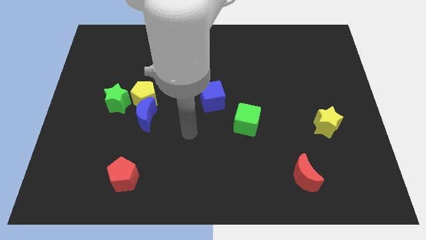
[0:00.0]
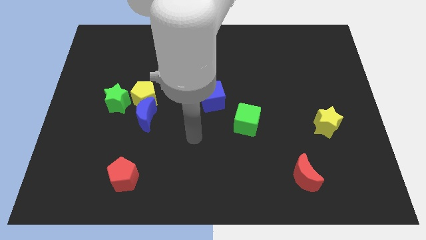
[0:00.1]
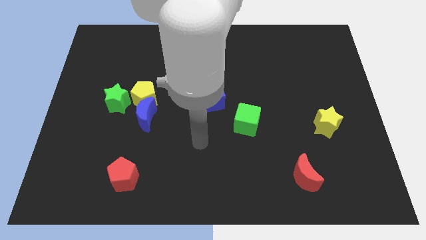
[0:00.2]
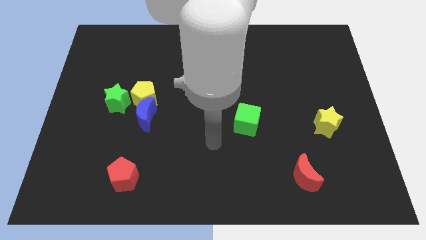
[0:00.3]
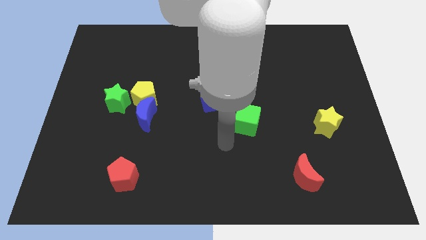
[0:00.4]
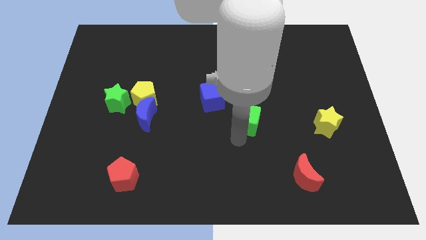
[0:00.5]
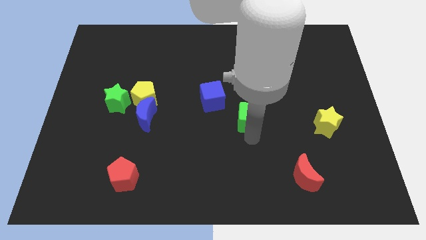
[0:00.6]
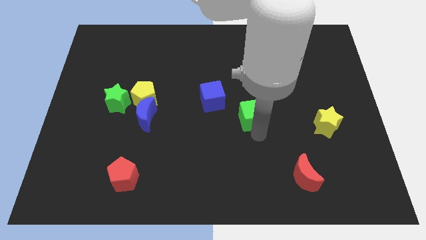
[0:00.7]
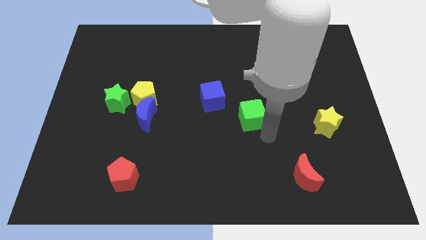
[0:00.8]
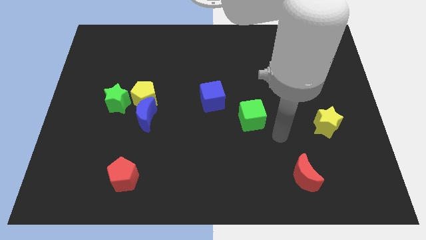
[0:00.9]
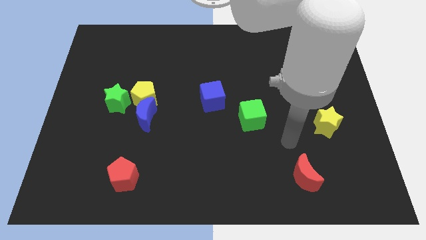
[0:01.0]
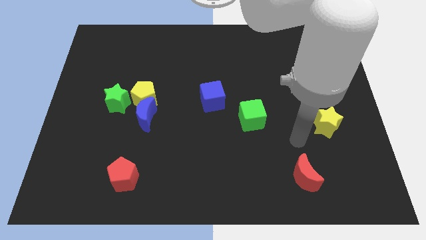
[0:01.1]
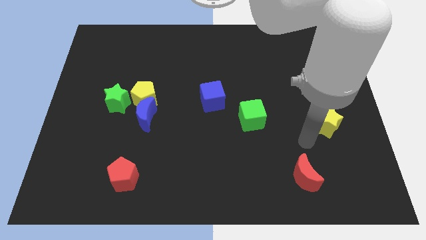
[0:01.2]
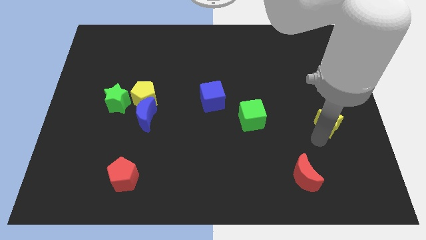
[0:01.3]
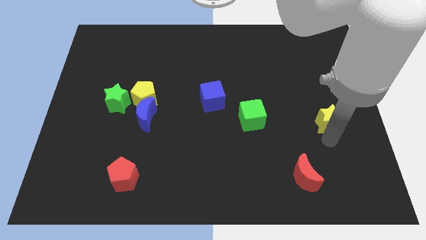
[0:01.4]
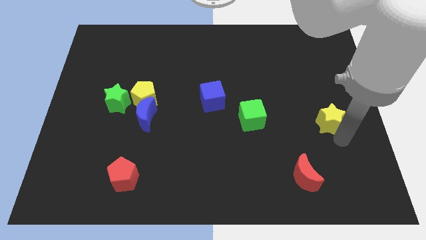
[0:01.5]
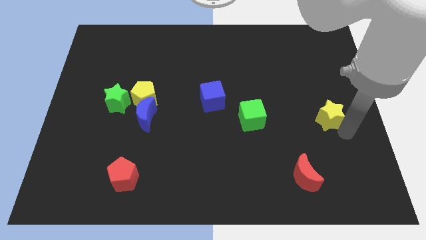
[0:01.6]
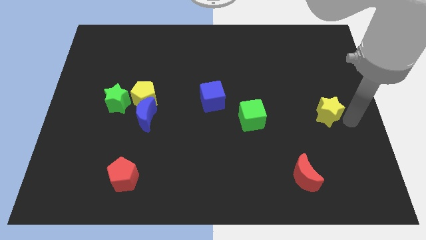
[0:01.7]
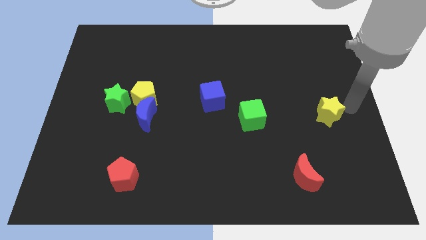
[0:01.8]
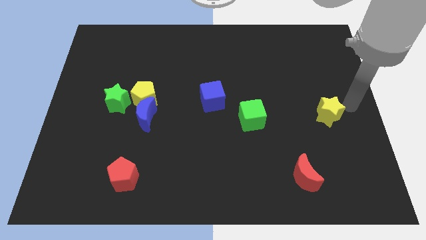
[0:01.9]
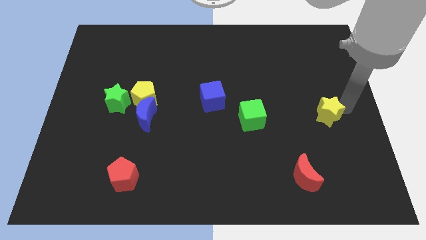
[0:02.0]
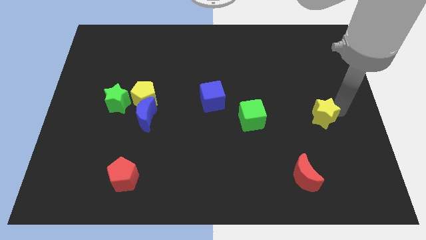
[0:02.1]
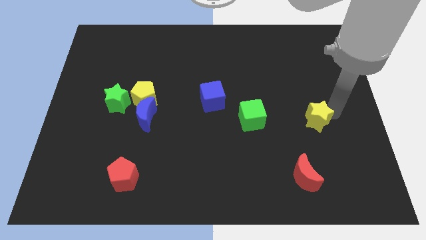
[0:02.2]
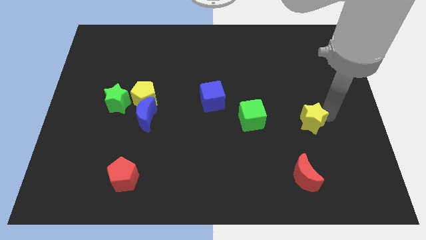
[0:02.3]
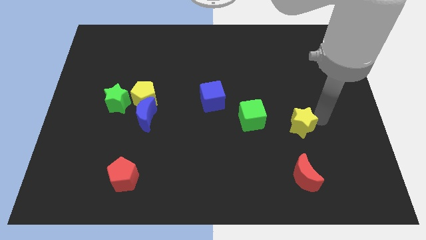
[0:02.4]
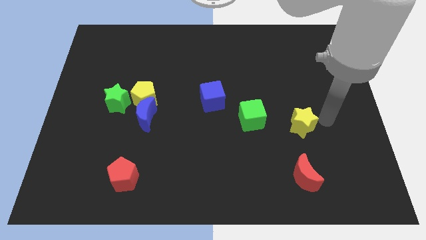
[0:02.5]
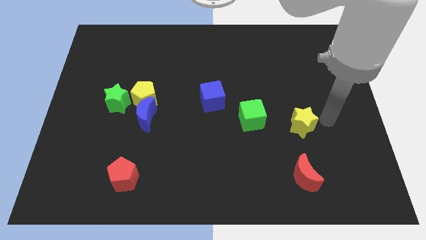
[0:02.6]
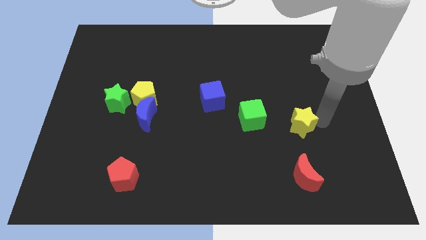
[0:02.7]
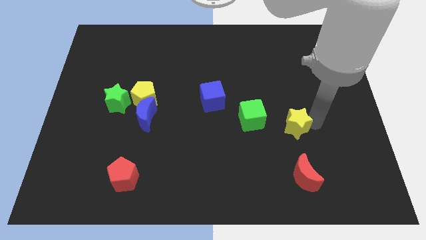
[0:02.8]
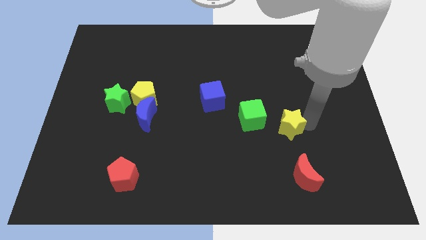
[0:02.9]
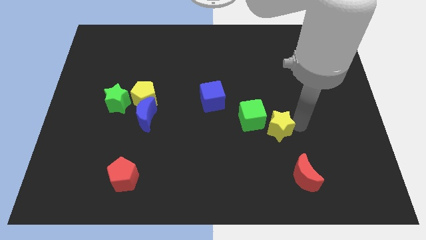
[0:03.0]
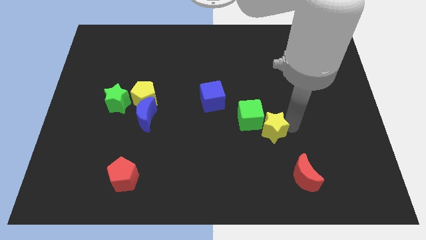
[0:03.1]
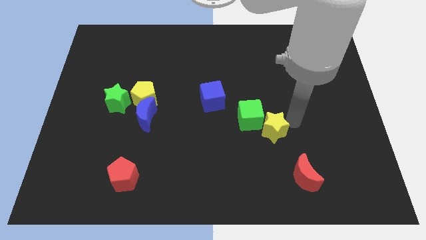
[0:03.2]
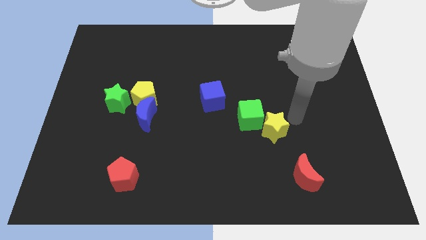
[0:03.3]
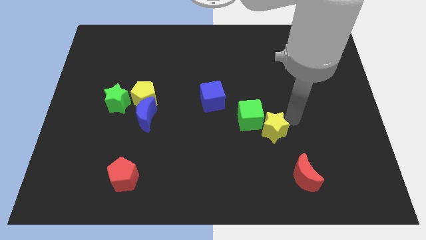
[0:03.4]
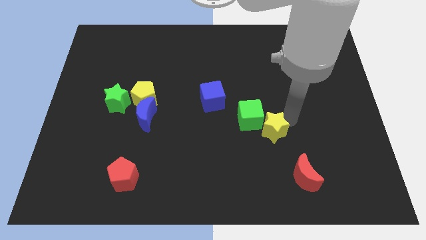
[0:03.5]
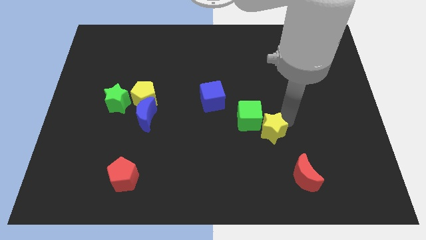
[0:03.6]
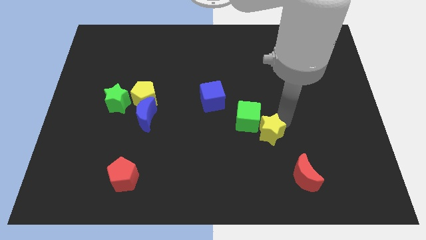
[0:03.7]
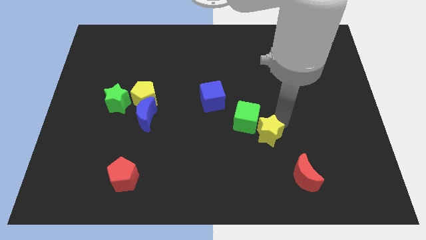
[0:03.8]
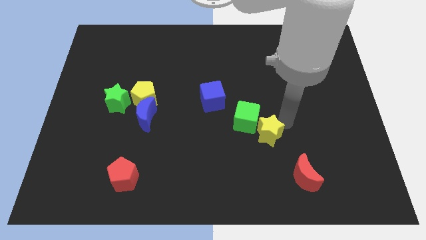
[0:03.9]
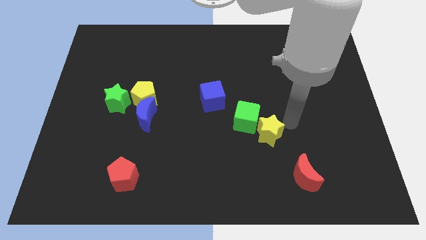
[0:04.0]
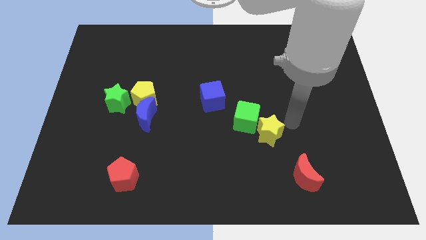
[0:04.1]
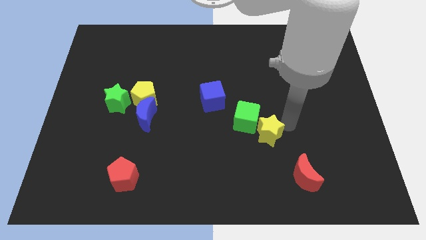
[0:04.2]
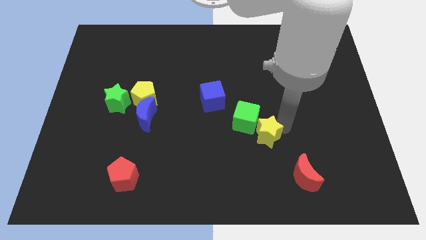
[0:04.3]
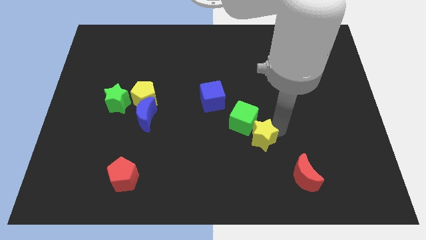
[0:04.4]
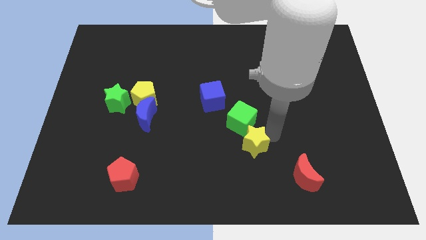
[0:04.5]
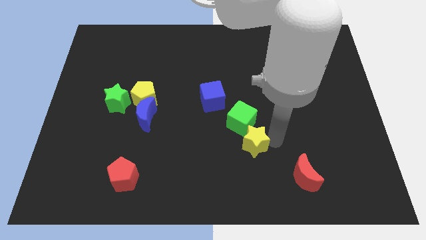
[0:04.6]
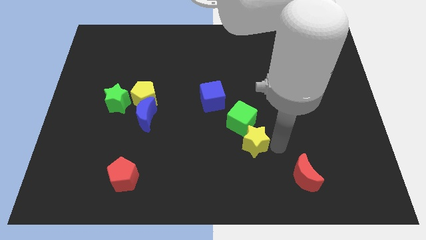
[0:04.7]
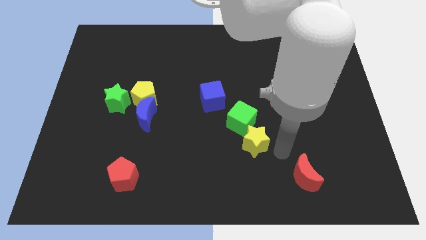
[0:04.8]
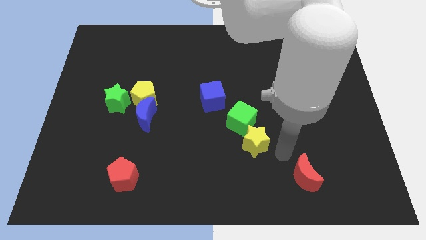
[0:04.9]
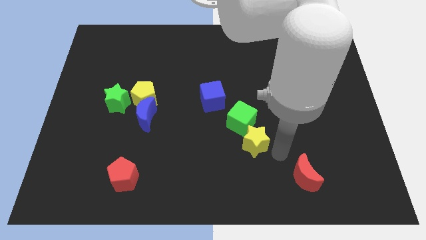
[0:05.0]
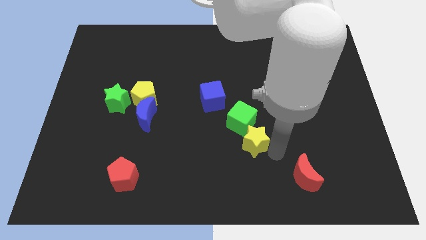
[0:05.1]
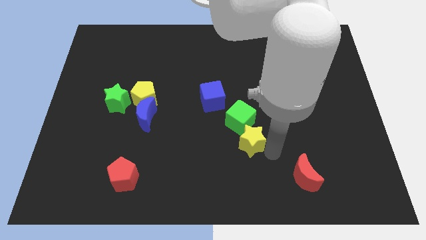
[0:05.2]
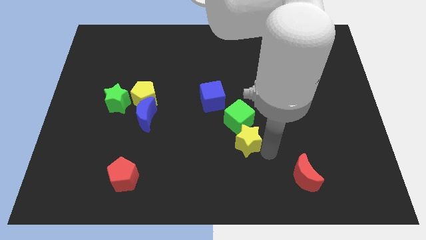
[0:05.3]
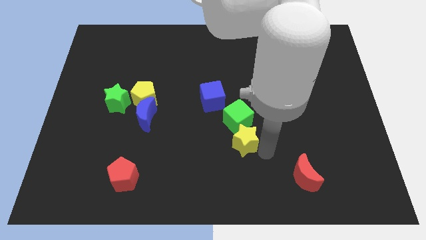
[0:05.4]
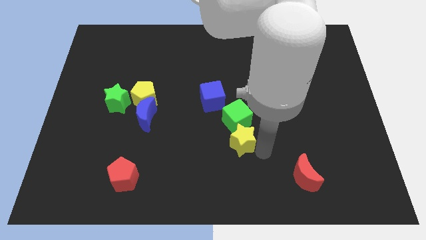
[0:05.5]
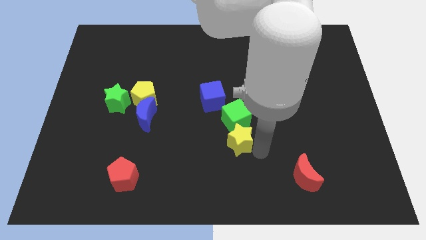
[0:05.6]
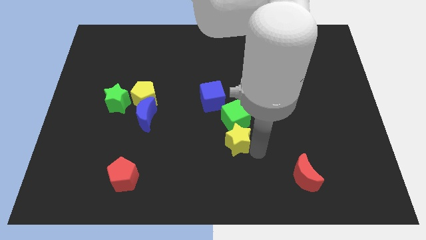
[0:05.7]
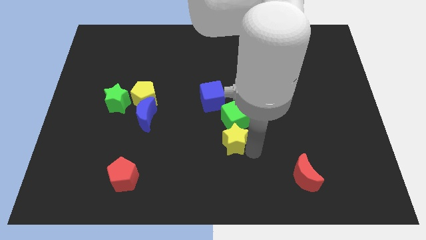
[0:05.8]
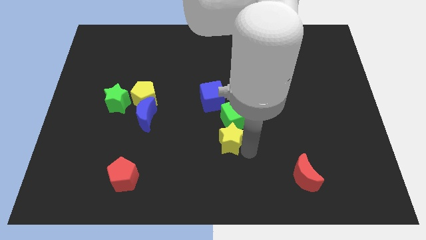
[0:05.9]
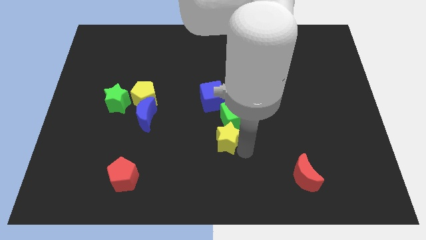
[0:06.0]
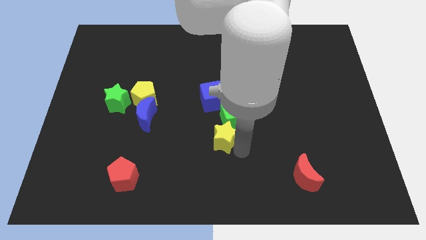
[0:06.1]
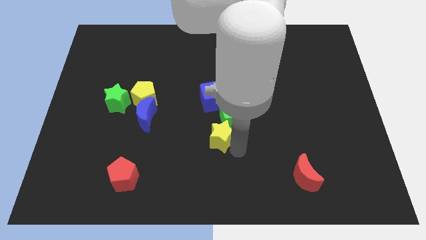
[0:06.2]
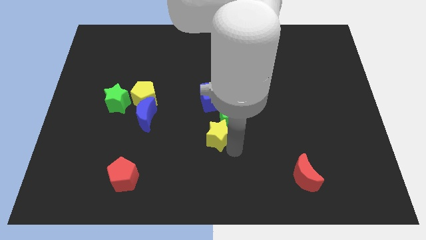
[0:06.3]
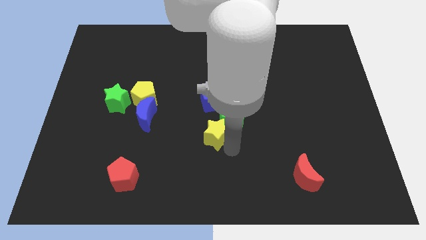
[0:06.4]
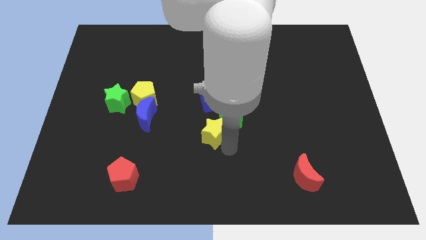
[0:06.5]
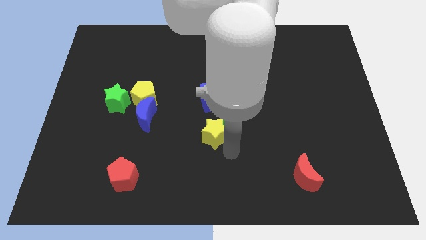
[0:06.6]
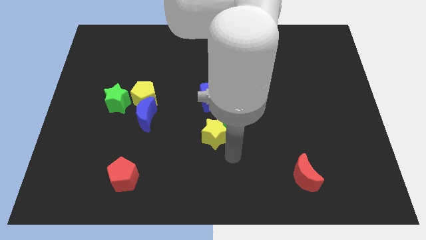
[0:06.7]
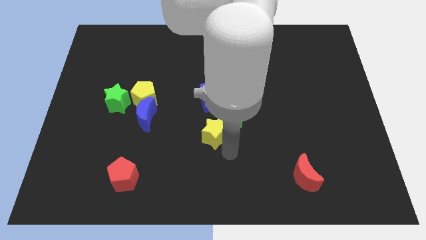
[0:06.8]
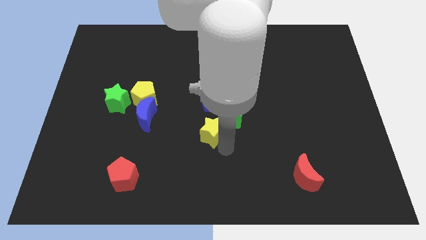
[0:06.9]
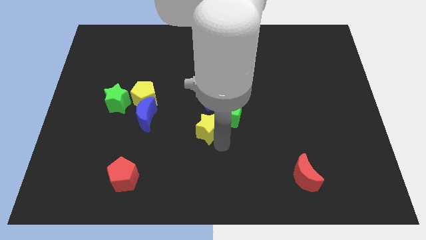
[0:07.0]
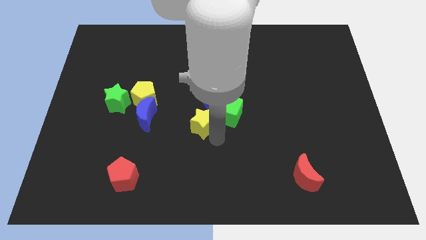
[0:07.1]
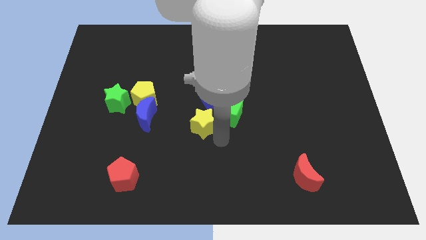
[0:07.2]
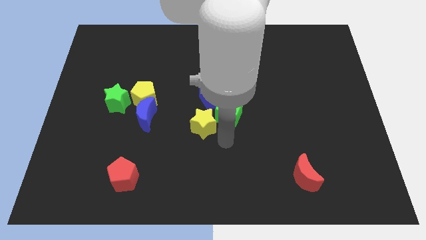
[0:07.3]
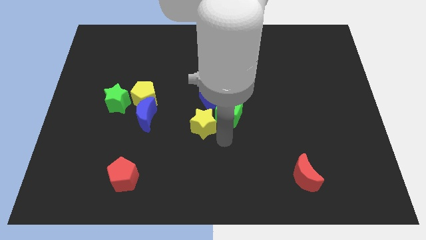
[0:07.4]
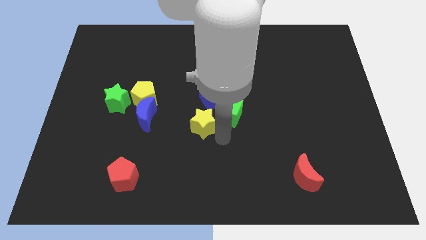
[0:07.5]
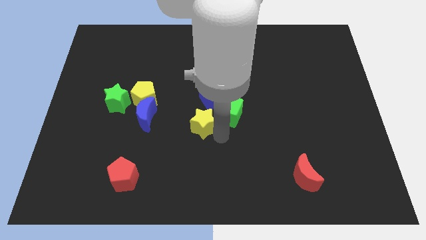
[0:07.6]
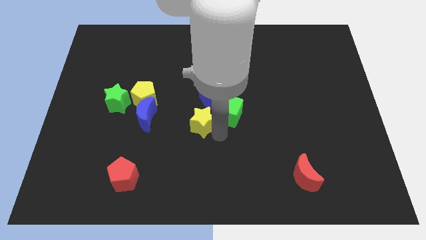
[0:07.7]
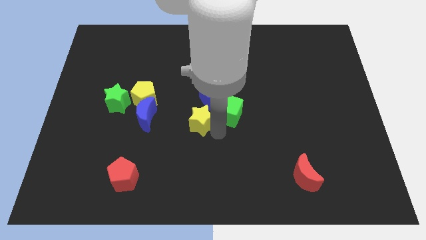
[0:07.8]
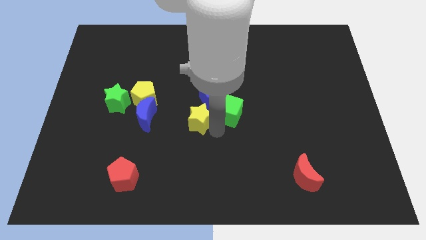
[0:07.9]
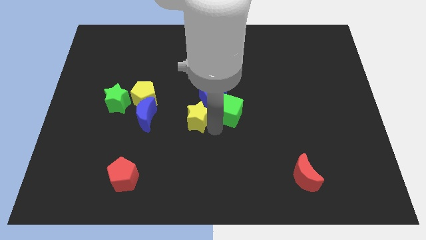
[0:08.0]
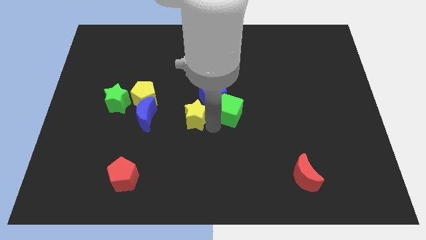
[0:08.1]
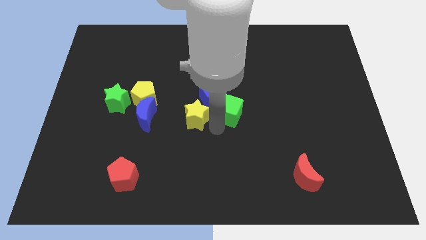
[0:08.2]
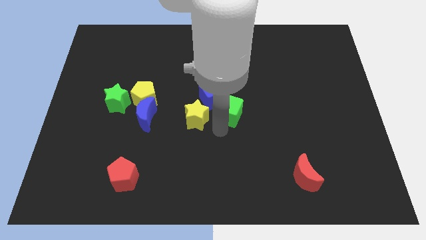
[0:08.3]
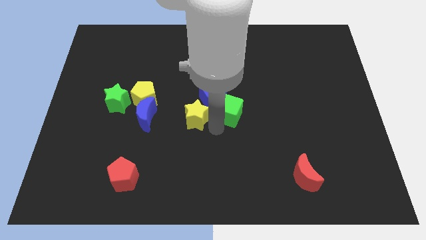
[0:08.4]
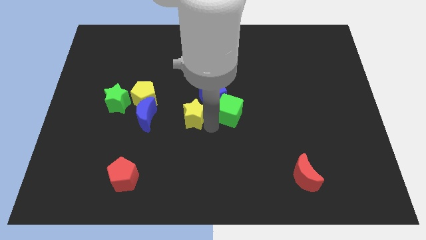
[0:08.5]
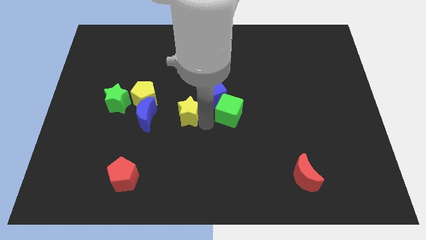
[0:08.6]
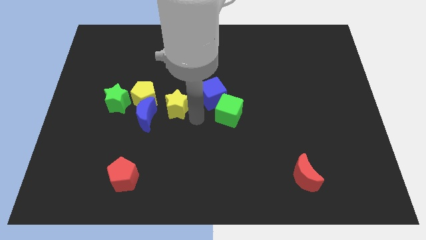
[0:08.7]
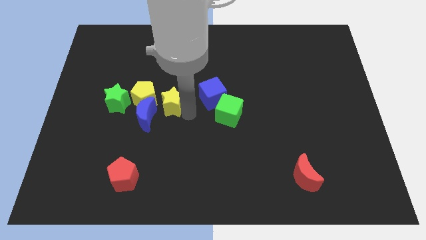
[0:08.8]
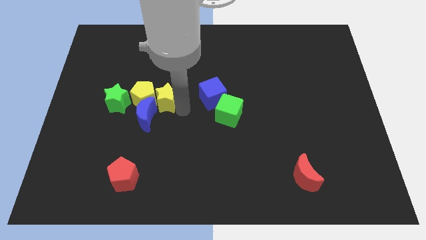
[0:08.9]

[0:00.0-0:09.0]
slide the yellow star towards the yellow pentagon
